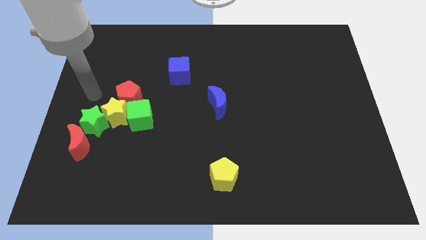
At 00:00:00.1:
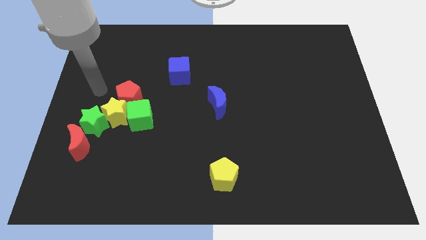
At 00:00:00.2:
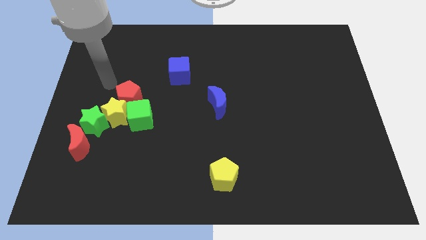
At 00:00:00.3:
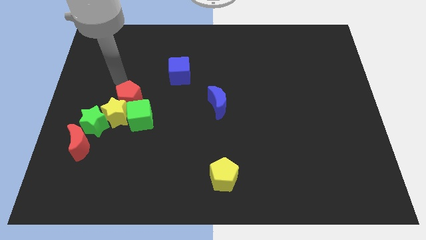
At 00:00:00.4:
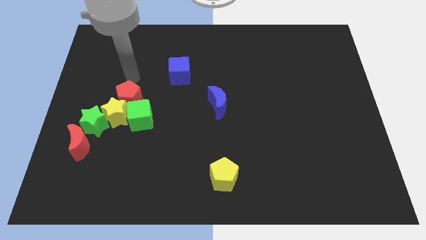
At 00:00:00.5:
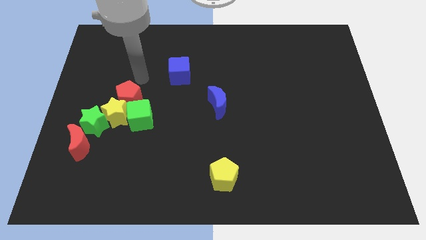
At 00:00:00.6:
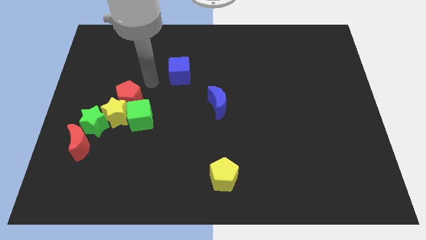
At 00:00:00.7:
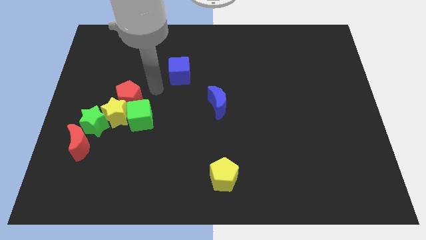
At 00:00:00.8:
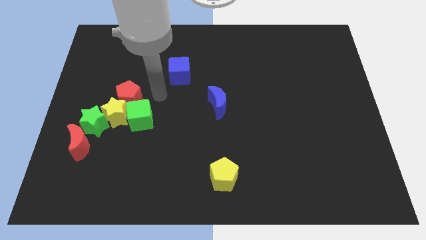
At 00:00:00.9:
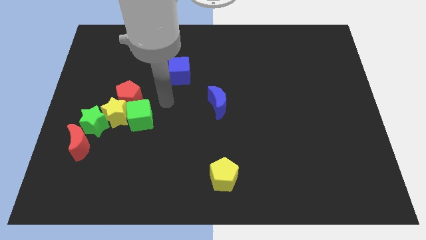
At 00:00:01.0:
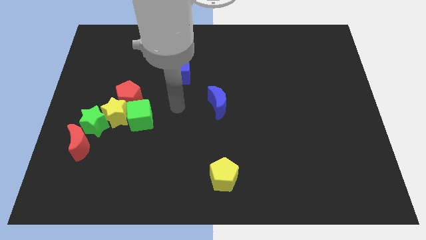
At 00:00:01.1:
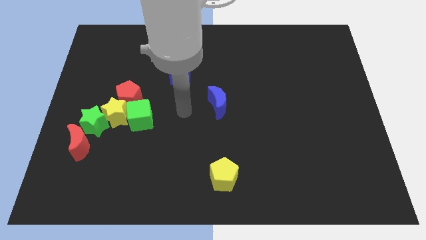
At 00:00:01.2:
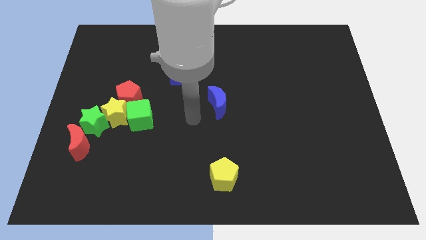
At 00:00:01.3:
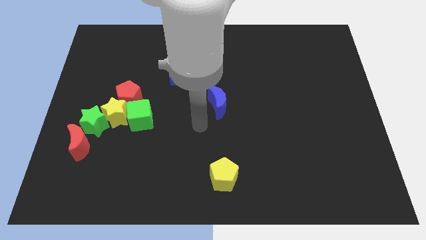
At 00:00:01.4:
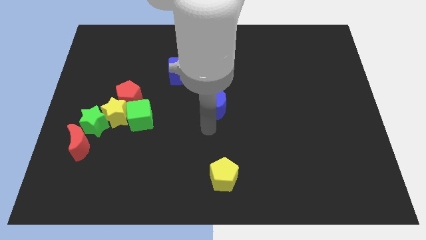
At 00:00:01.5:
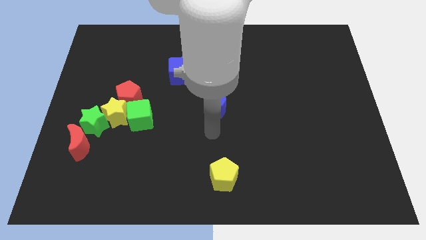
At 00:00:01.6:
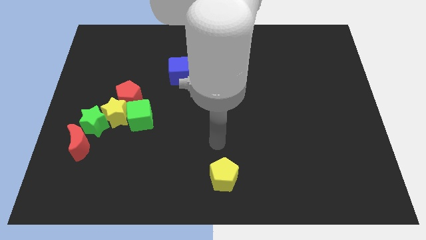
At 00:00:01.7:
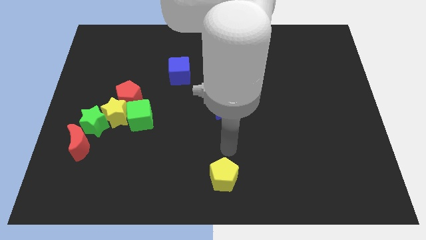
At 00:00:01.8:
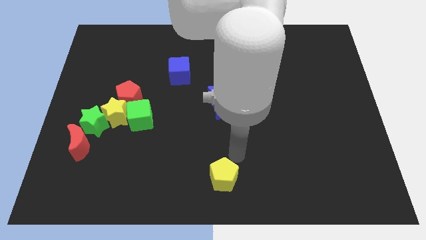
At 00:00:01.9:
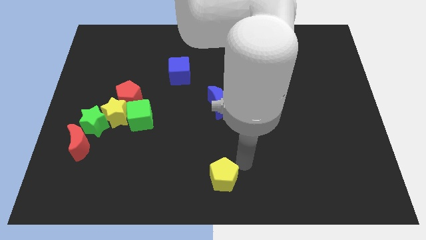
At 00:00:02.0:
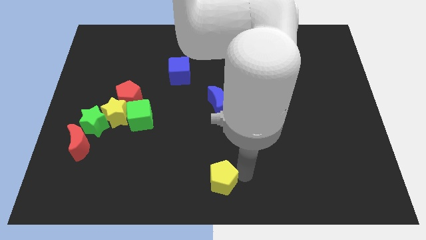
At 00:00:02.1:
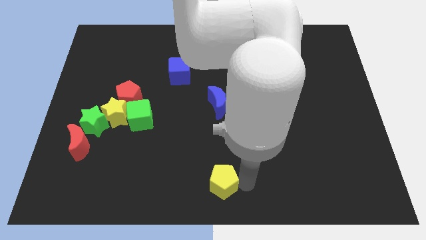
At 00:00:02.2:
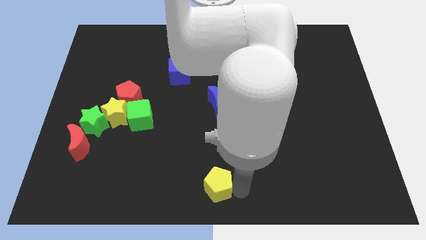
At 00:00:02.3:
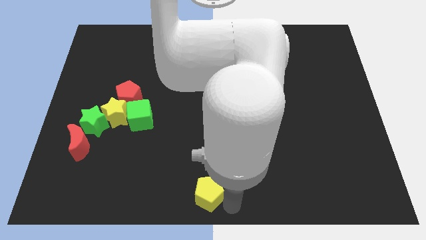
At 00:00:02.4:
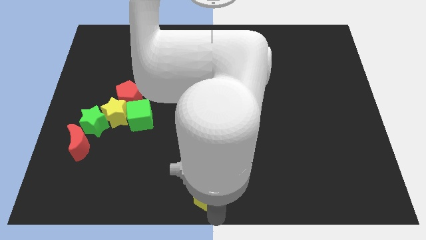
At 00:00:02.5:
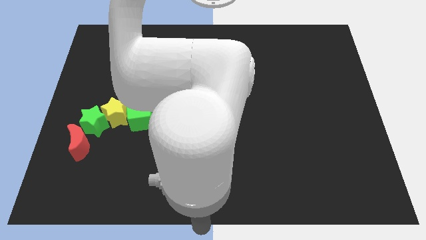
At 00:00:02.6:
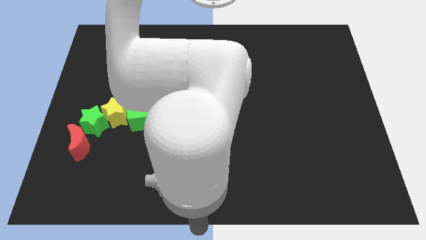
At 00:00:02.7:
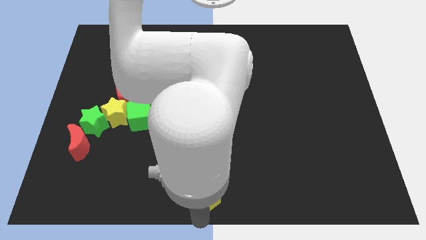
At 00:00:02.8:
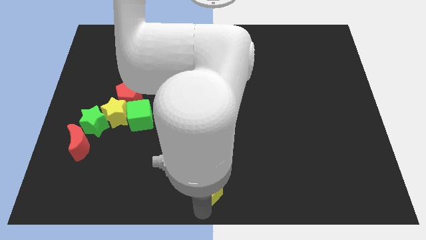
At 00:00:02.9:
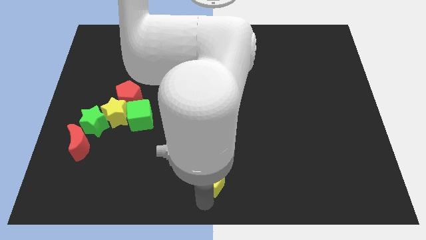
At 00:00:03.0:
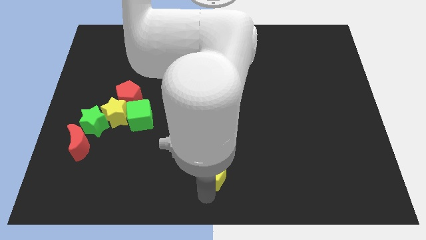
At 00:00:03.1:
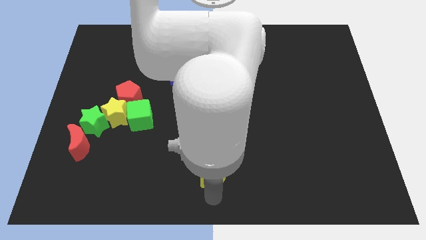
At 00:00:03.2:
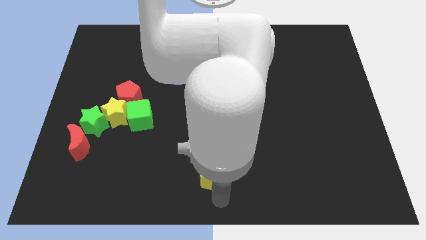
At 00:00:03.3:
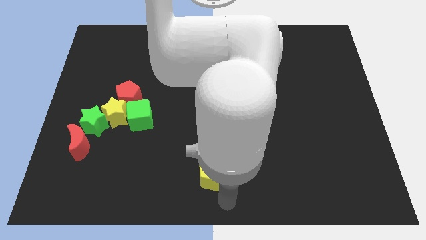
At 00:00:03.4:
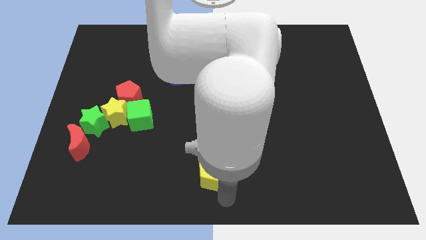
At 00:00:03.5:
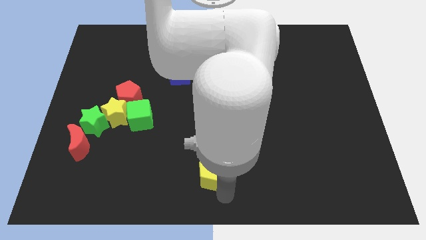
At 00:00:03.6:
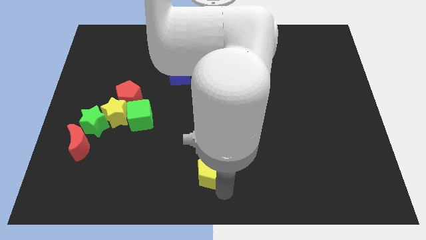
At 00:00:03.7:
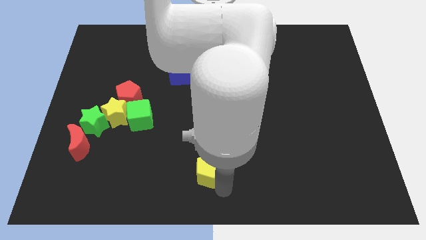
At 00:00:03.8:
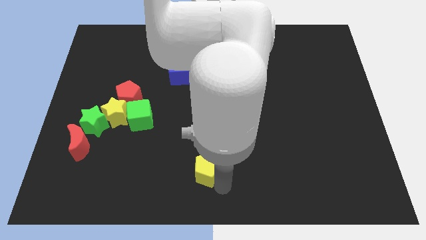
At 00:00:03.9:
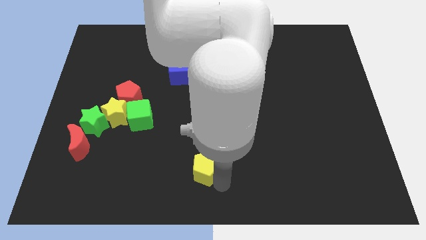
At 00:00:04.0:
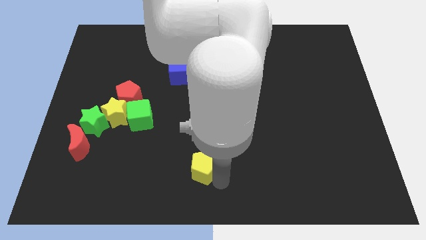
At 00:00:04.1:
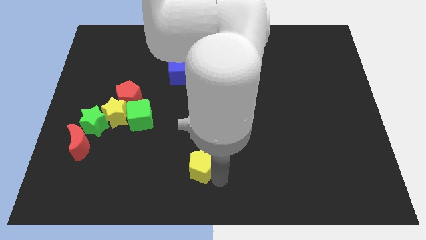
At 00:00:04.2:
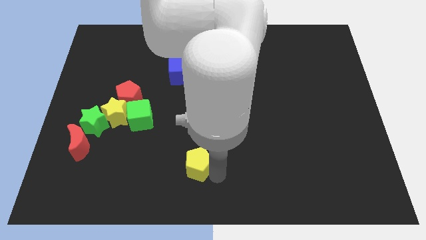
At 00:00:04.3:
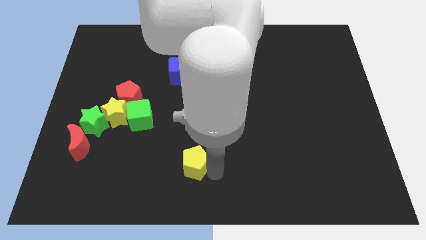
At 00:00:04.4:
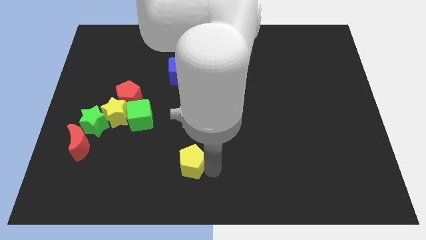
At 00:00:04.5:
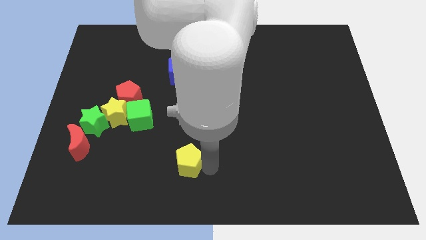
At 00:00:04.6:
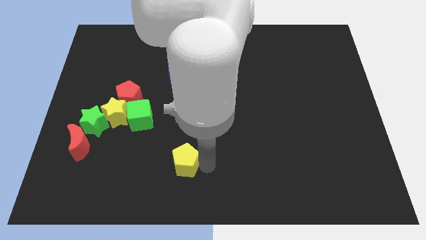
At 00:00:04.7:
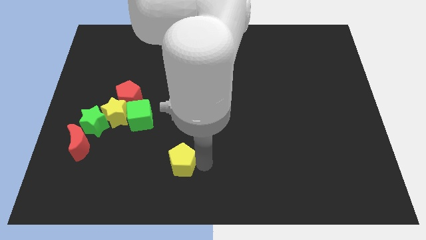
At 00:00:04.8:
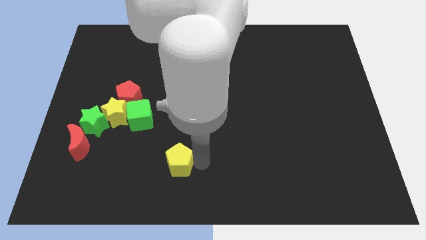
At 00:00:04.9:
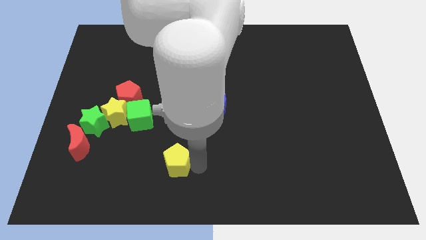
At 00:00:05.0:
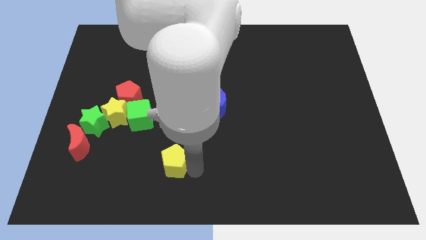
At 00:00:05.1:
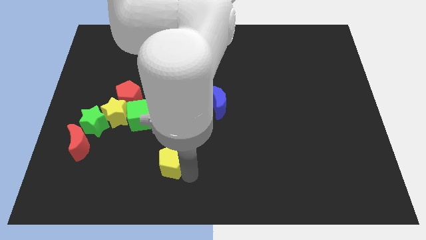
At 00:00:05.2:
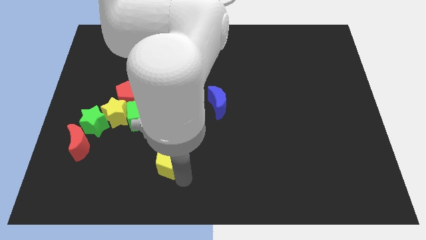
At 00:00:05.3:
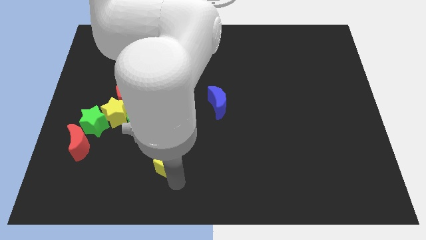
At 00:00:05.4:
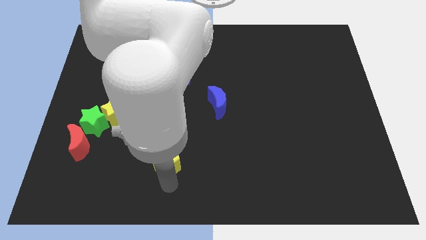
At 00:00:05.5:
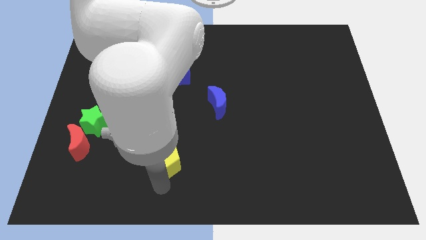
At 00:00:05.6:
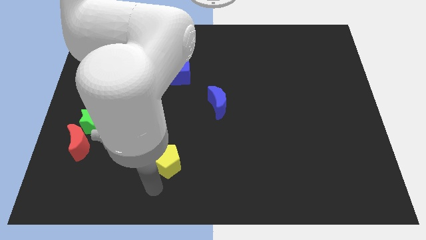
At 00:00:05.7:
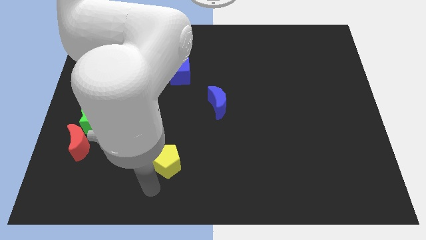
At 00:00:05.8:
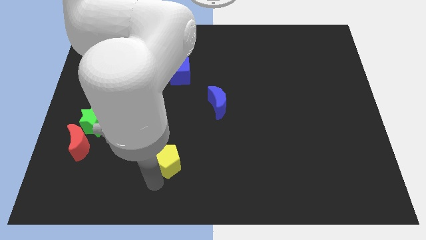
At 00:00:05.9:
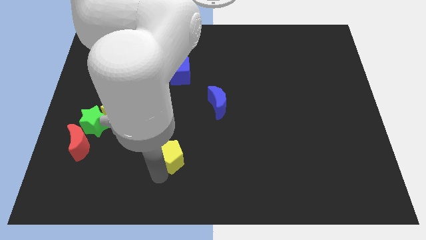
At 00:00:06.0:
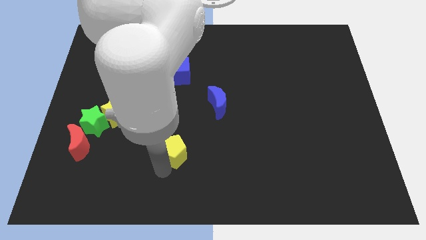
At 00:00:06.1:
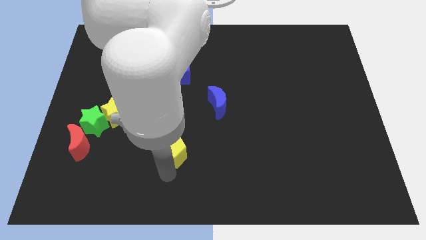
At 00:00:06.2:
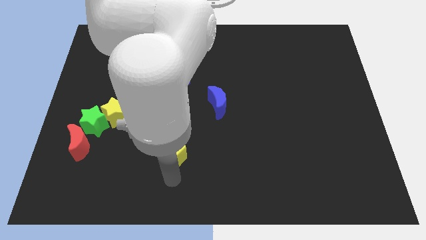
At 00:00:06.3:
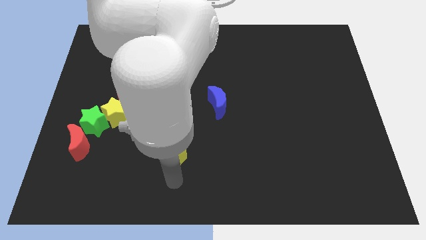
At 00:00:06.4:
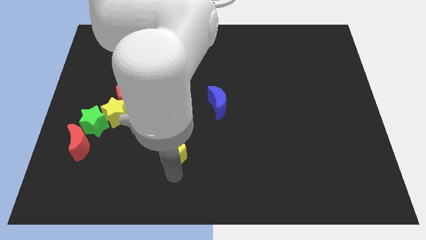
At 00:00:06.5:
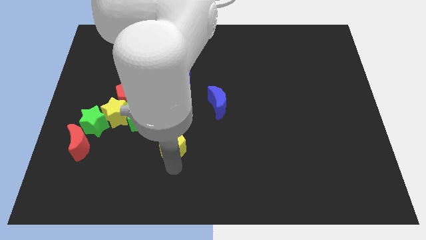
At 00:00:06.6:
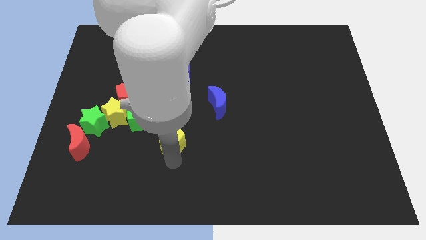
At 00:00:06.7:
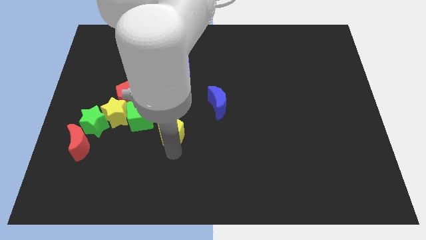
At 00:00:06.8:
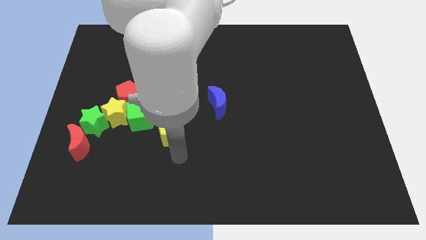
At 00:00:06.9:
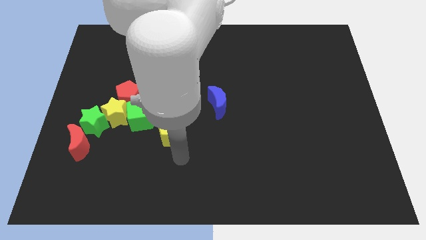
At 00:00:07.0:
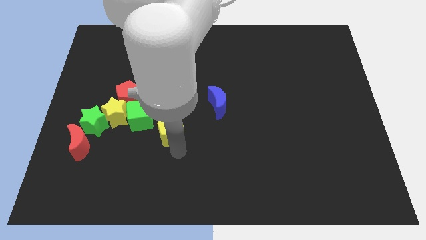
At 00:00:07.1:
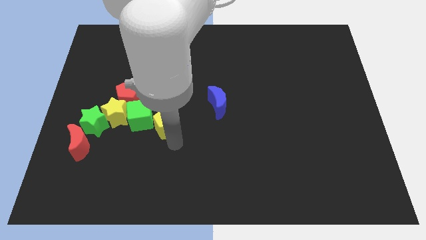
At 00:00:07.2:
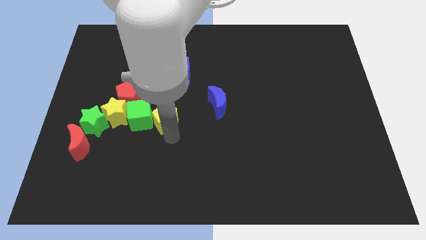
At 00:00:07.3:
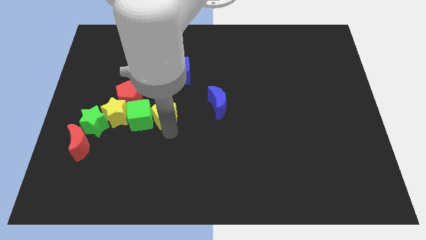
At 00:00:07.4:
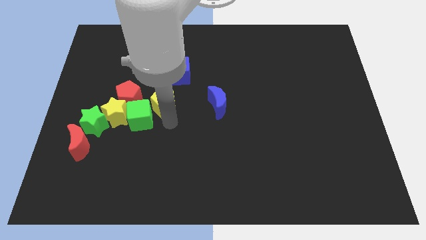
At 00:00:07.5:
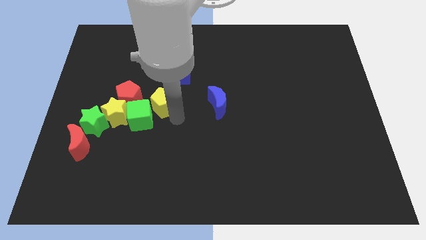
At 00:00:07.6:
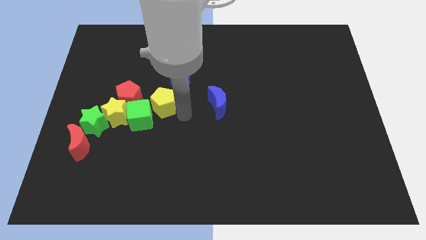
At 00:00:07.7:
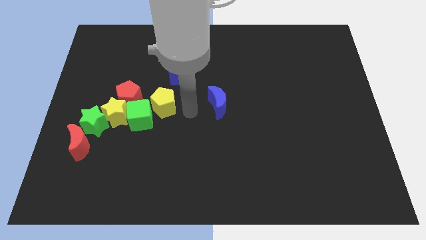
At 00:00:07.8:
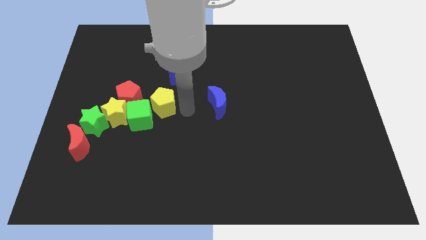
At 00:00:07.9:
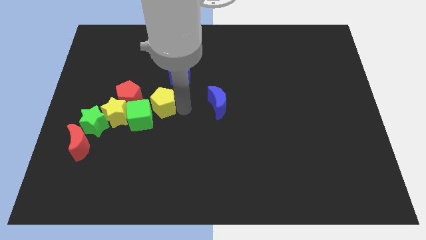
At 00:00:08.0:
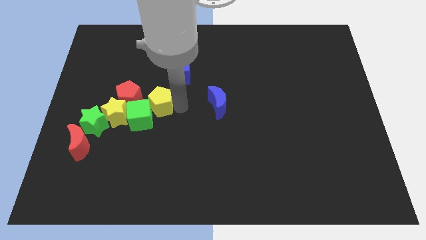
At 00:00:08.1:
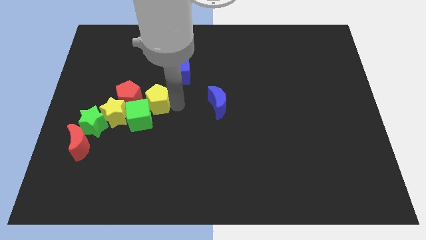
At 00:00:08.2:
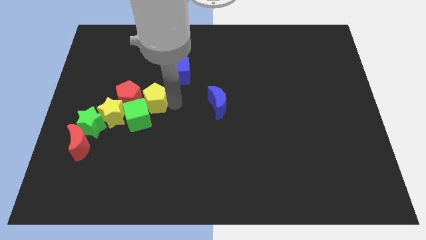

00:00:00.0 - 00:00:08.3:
slide the yellow pentagon close to the red pentagon
